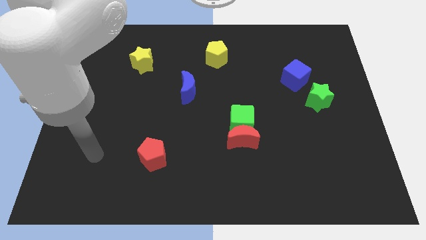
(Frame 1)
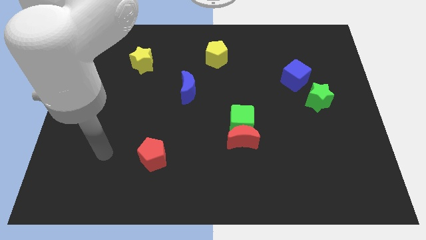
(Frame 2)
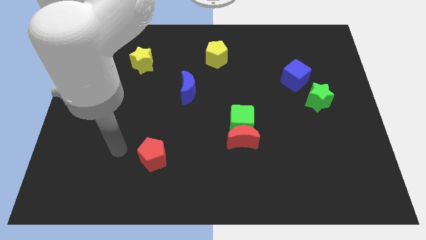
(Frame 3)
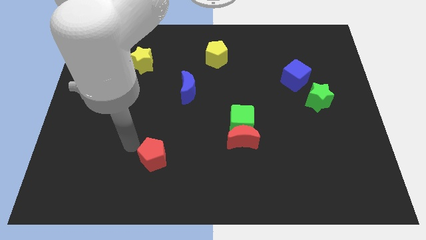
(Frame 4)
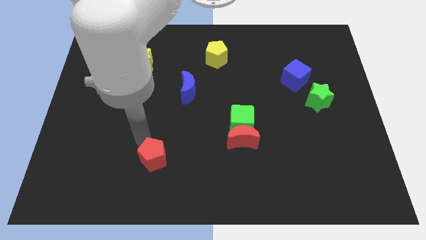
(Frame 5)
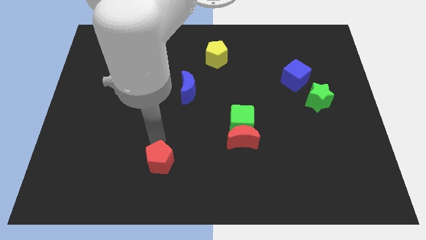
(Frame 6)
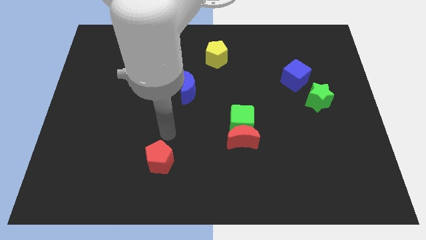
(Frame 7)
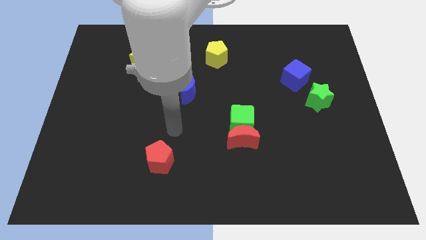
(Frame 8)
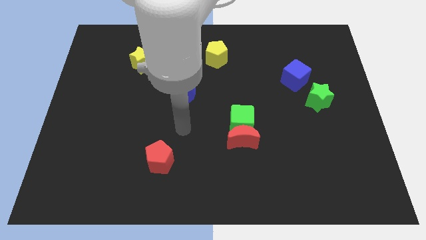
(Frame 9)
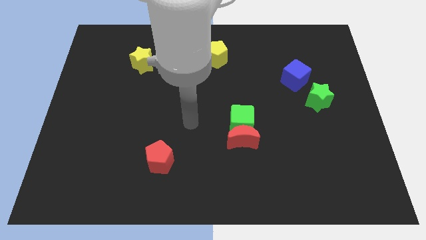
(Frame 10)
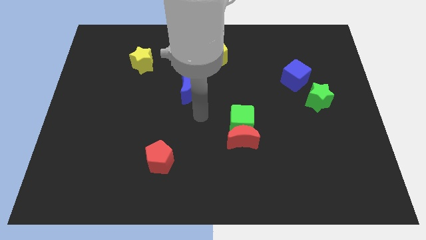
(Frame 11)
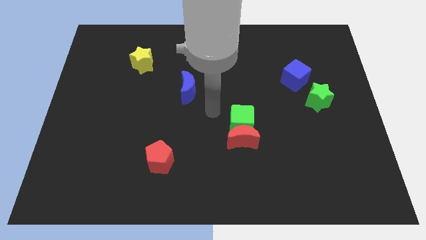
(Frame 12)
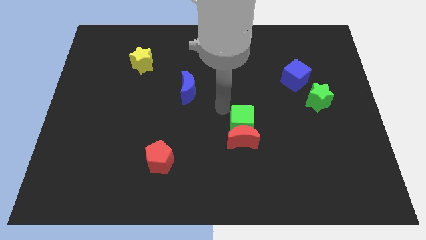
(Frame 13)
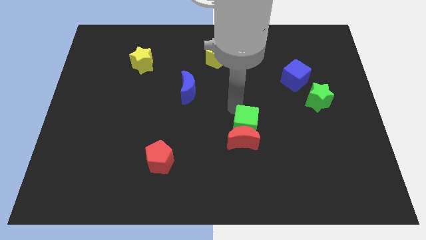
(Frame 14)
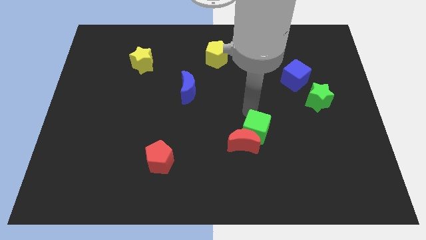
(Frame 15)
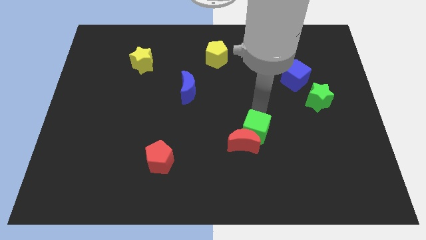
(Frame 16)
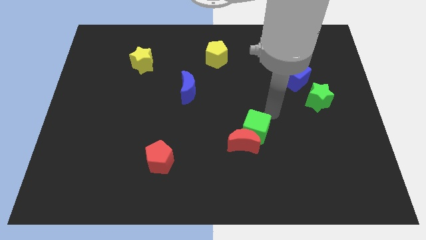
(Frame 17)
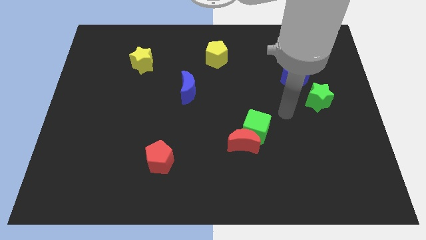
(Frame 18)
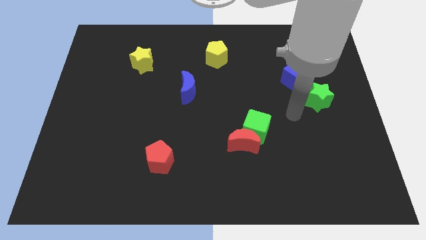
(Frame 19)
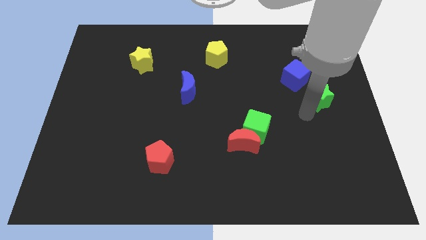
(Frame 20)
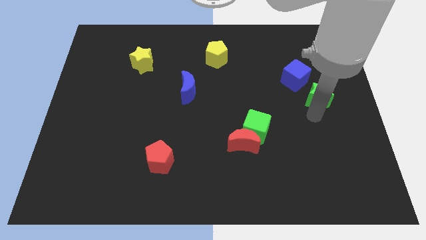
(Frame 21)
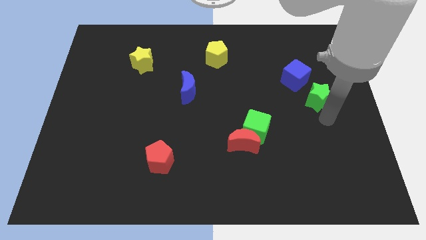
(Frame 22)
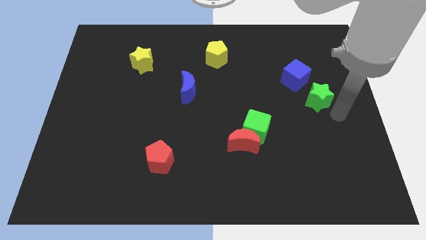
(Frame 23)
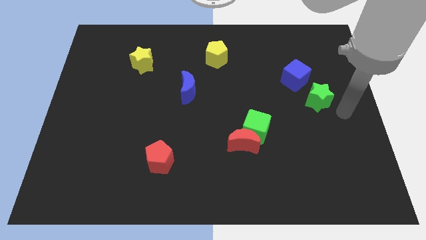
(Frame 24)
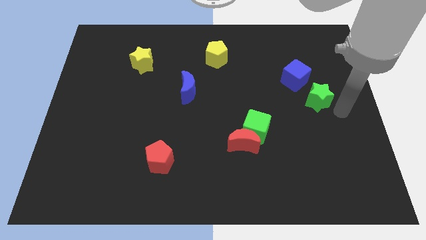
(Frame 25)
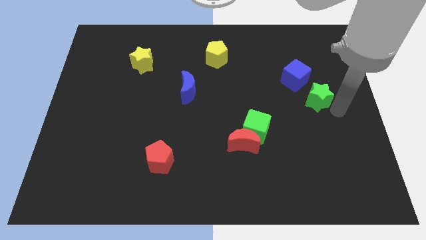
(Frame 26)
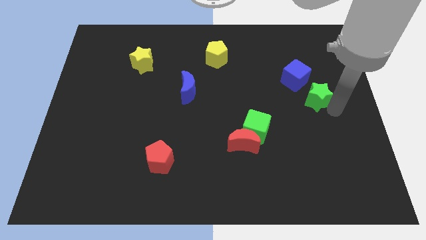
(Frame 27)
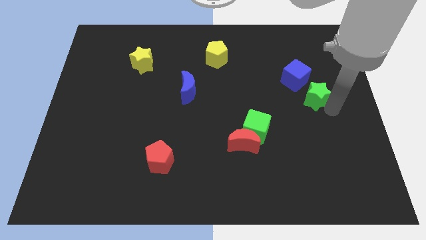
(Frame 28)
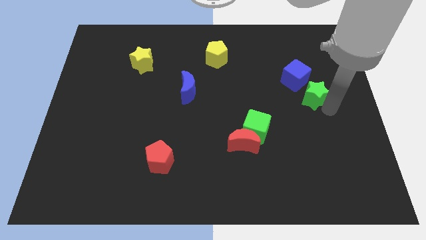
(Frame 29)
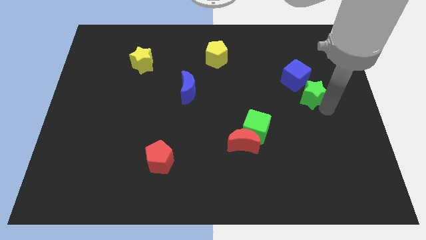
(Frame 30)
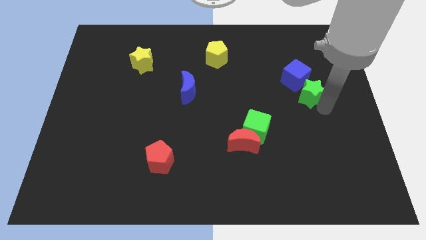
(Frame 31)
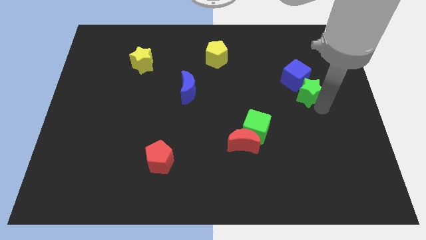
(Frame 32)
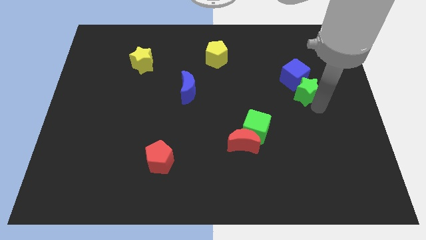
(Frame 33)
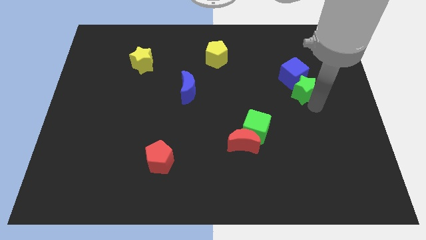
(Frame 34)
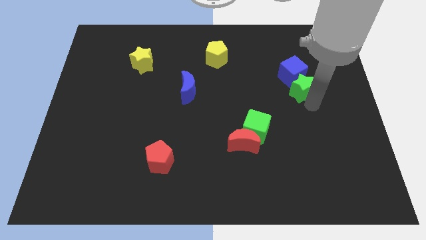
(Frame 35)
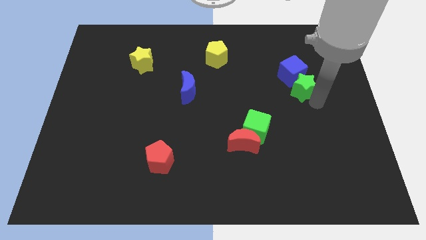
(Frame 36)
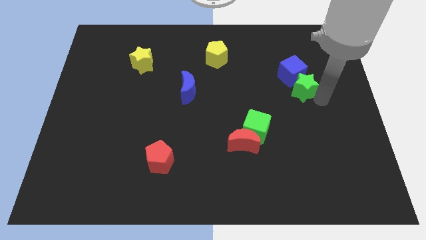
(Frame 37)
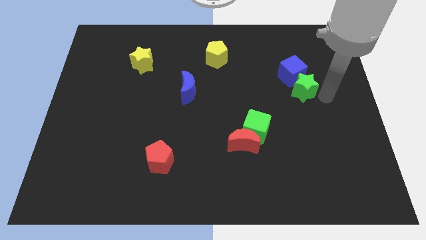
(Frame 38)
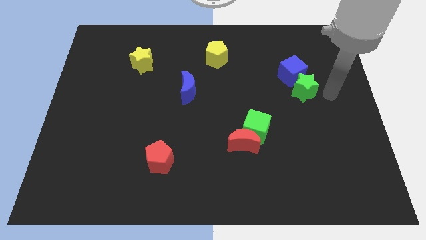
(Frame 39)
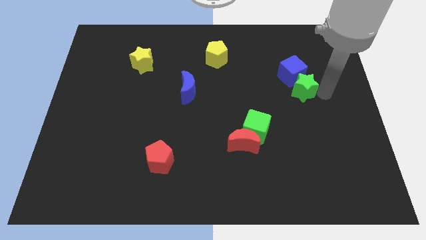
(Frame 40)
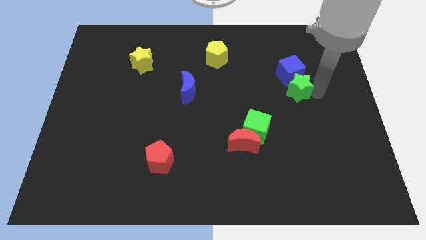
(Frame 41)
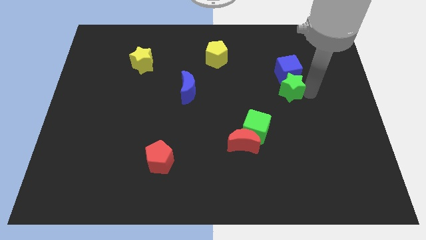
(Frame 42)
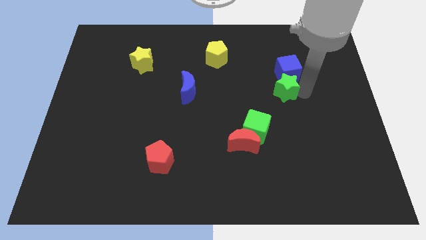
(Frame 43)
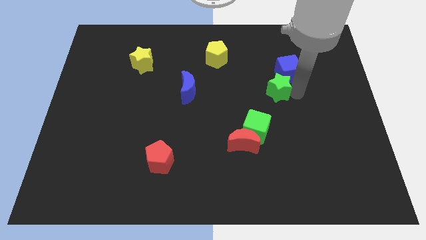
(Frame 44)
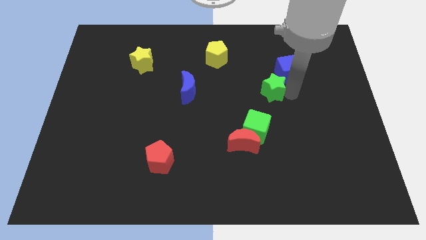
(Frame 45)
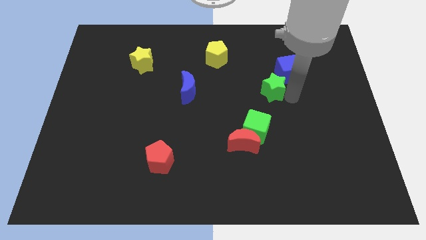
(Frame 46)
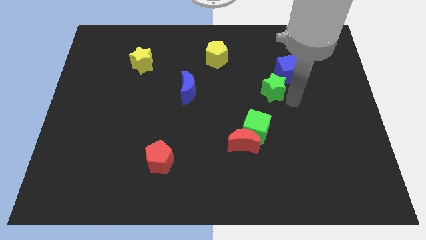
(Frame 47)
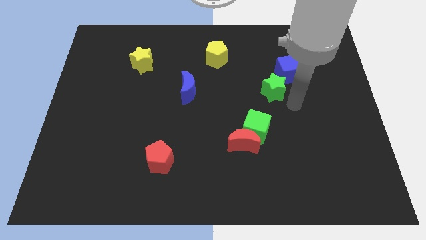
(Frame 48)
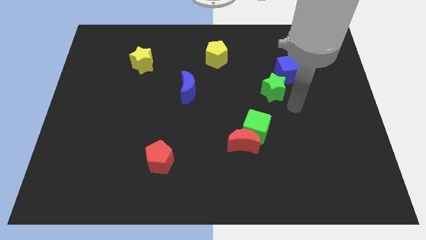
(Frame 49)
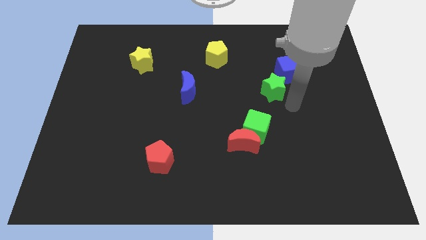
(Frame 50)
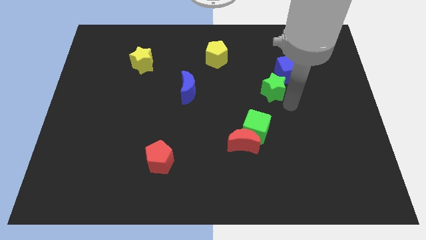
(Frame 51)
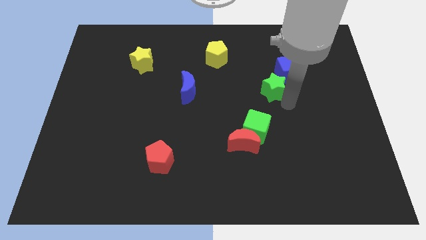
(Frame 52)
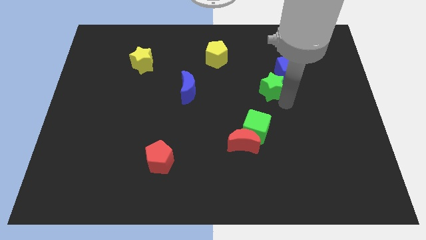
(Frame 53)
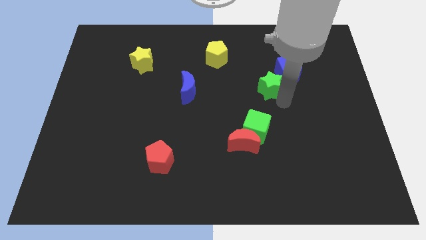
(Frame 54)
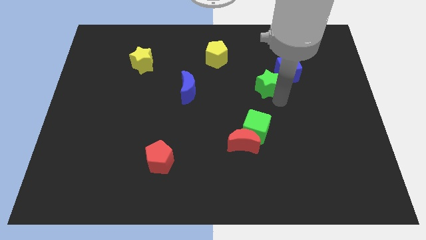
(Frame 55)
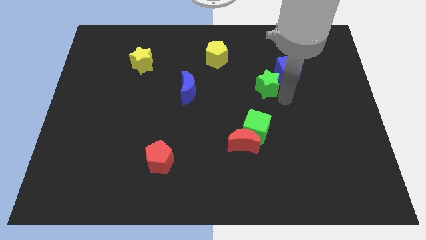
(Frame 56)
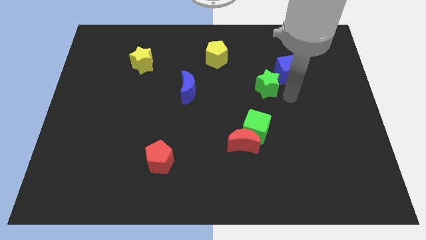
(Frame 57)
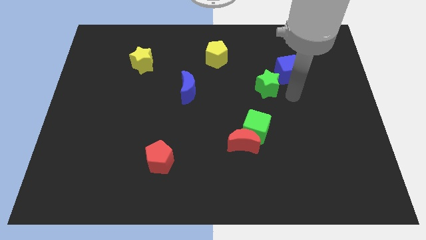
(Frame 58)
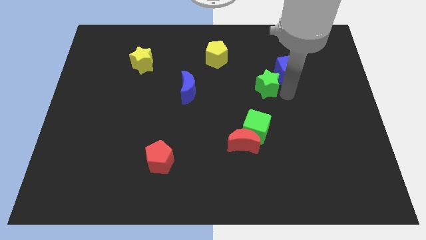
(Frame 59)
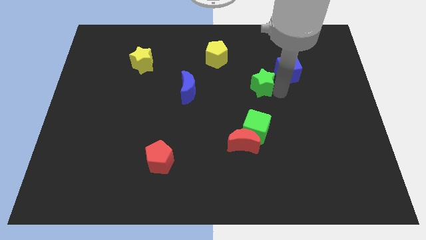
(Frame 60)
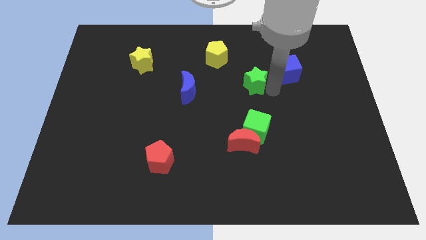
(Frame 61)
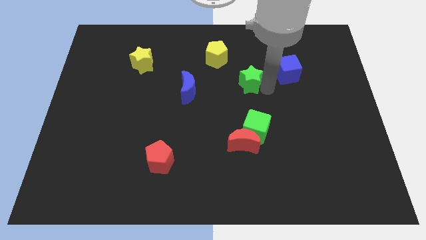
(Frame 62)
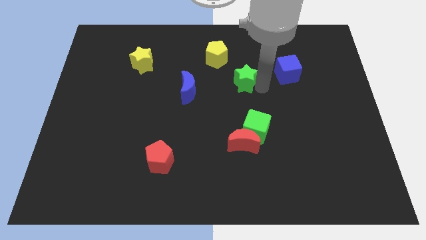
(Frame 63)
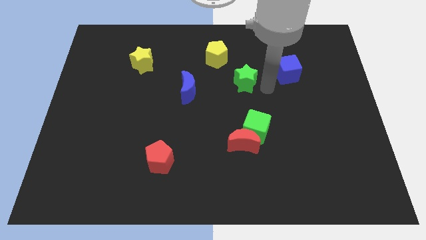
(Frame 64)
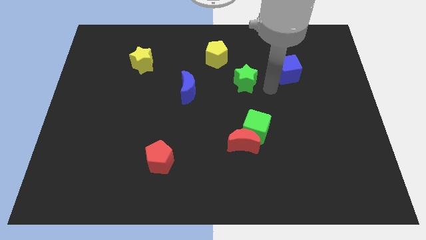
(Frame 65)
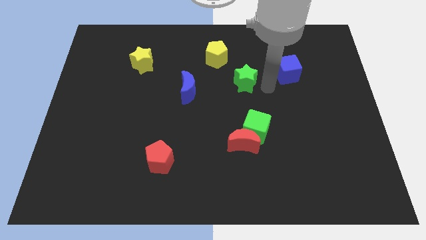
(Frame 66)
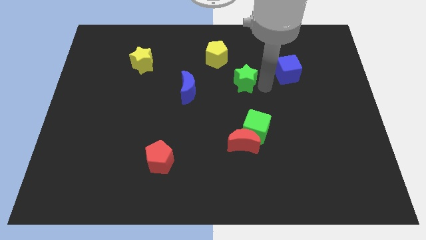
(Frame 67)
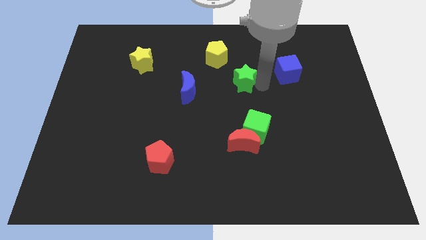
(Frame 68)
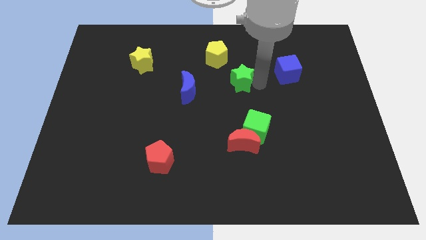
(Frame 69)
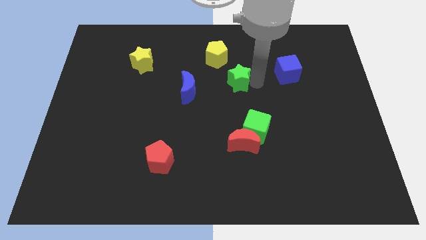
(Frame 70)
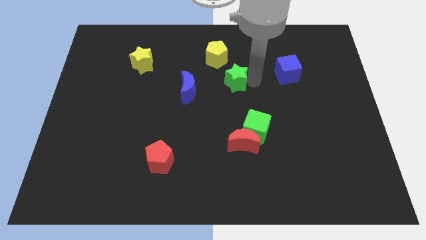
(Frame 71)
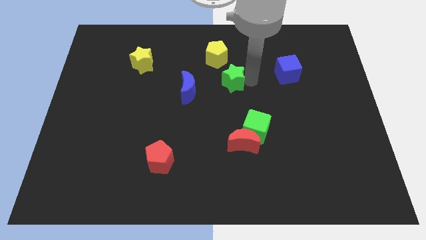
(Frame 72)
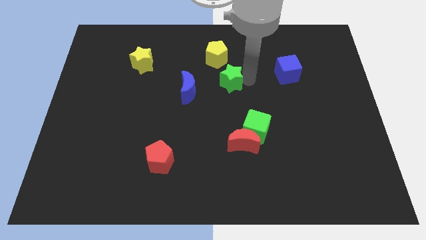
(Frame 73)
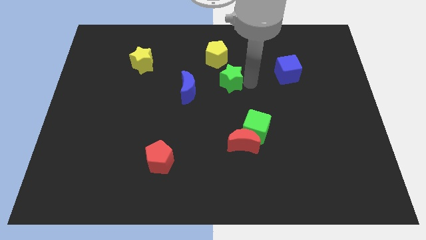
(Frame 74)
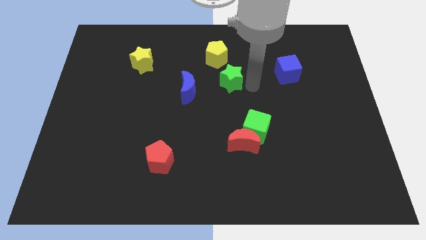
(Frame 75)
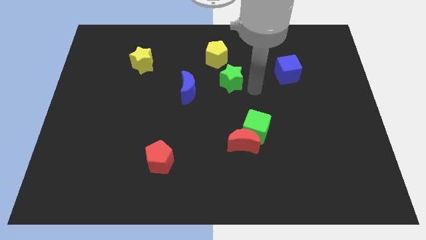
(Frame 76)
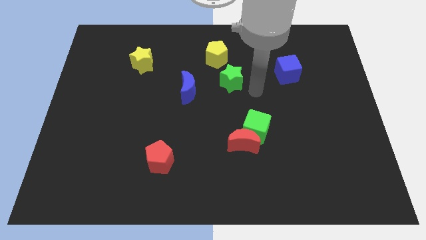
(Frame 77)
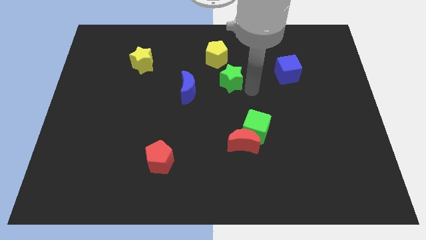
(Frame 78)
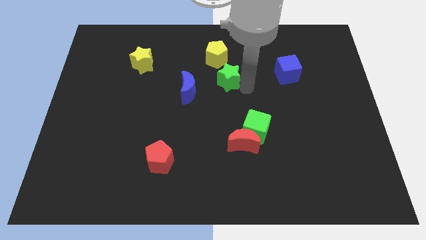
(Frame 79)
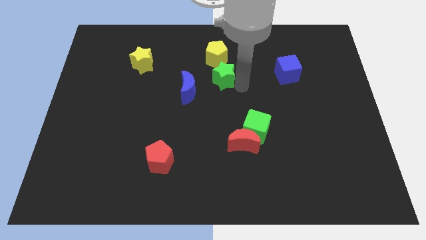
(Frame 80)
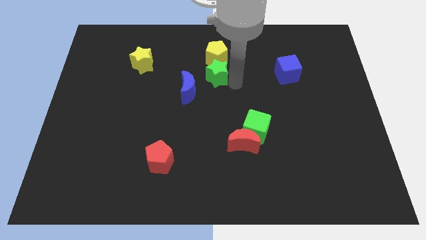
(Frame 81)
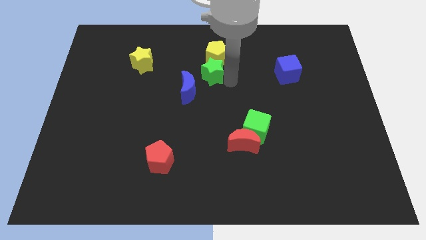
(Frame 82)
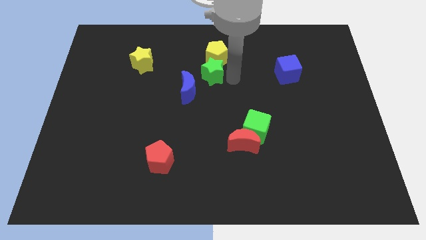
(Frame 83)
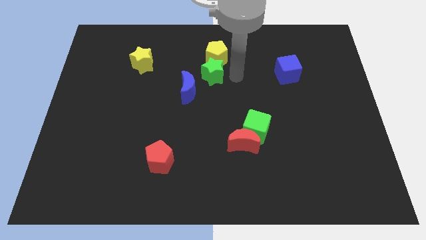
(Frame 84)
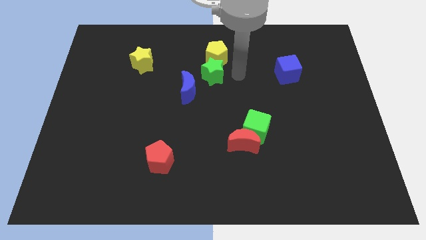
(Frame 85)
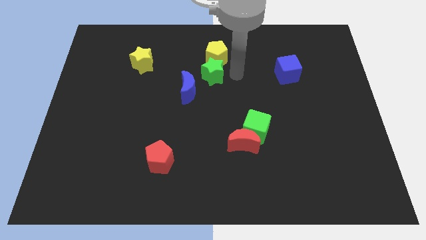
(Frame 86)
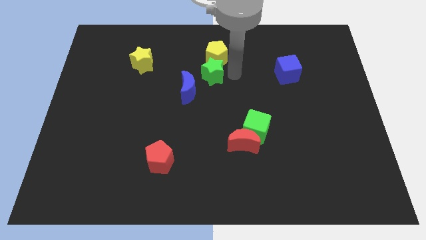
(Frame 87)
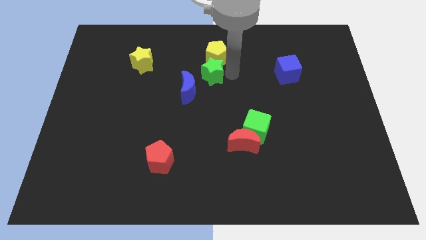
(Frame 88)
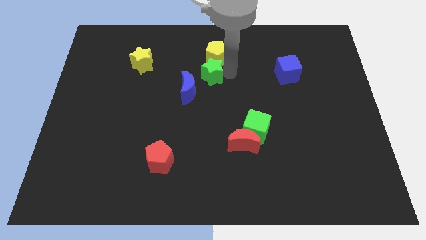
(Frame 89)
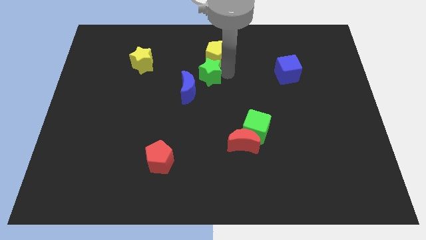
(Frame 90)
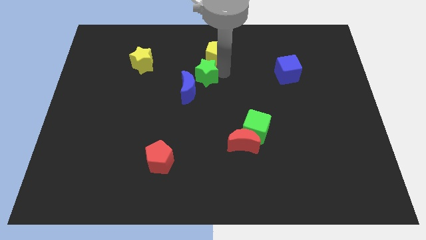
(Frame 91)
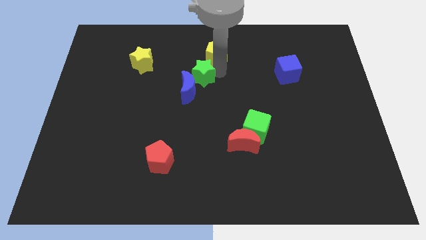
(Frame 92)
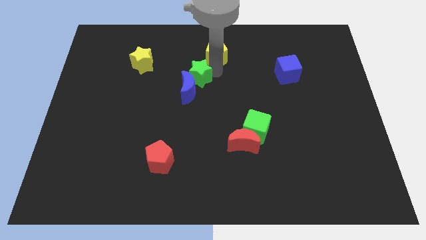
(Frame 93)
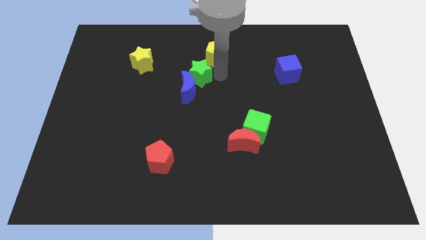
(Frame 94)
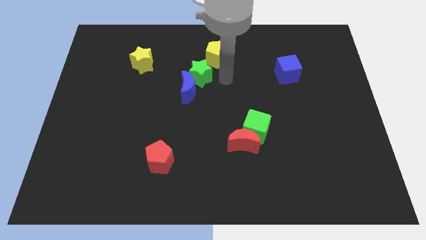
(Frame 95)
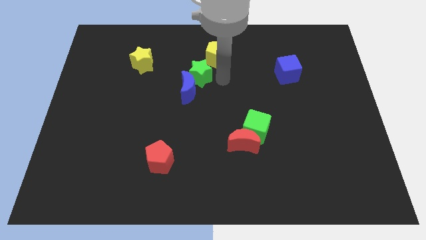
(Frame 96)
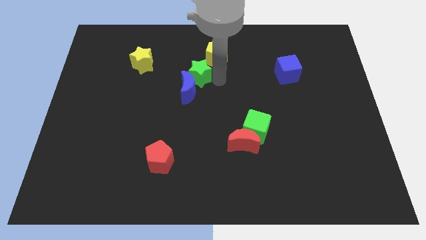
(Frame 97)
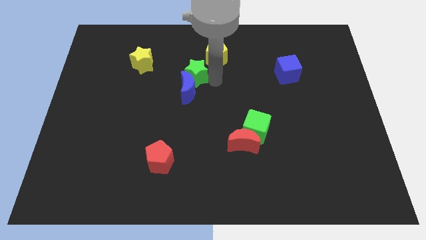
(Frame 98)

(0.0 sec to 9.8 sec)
move the green star to the top left side of the blue moon
